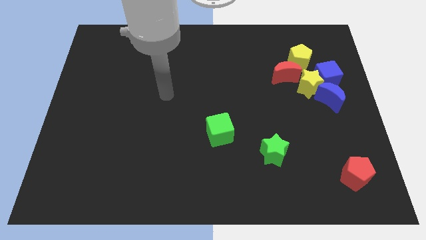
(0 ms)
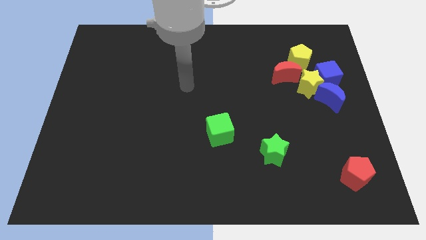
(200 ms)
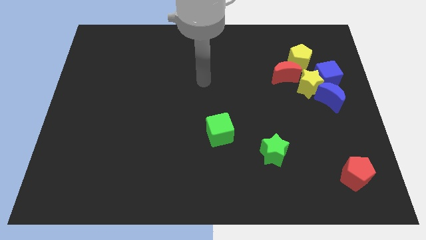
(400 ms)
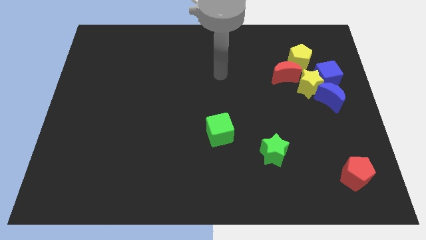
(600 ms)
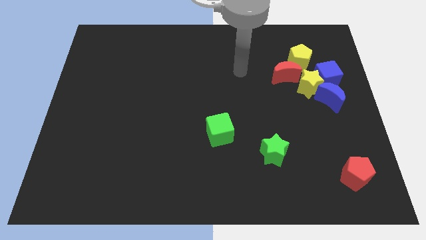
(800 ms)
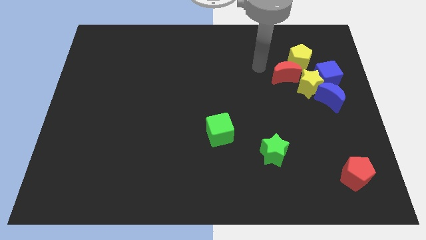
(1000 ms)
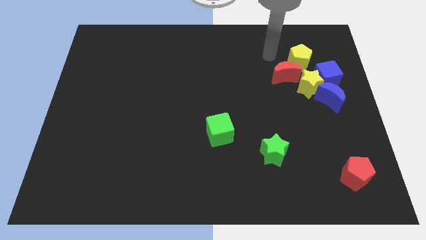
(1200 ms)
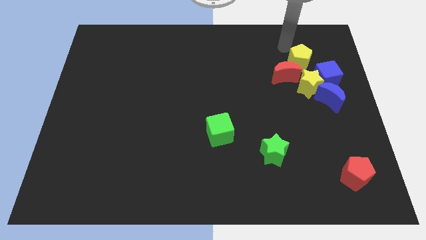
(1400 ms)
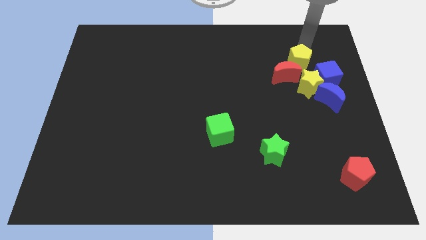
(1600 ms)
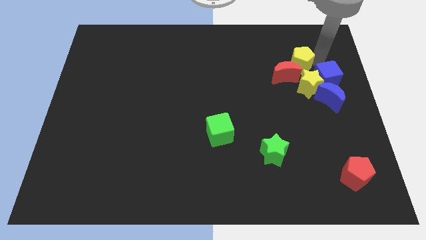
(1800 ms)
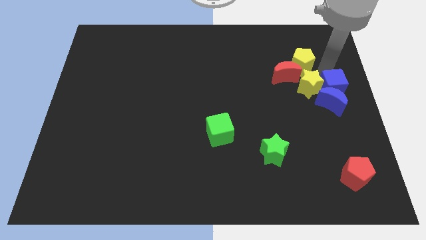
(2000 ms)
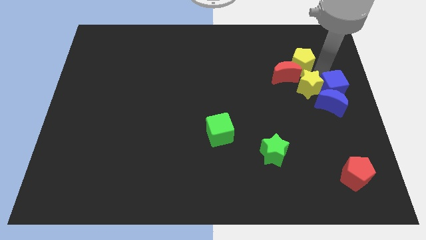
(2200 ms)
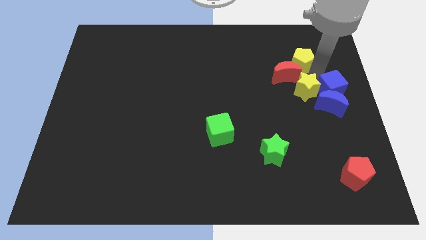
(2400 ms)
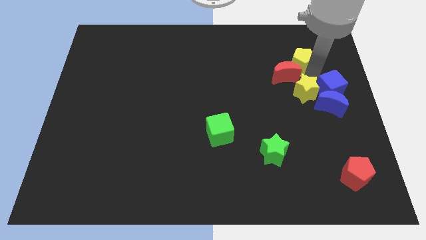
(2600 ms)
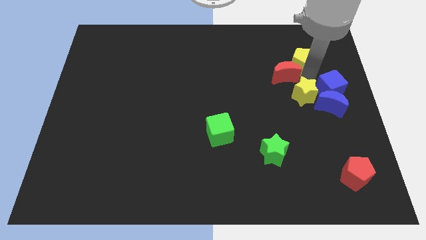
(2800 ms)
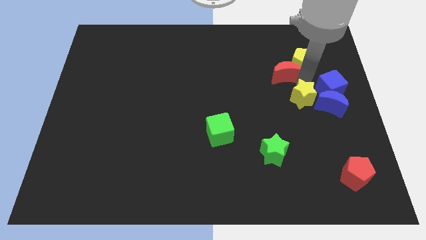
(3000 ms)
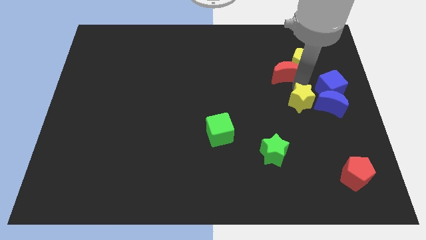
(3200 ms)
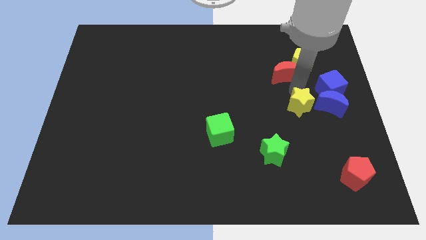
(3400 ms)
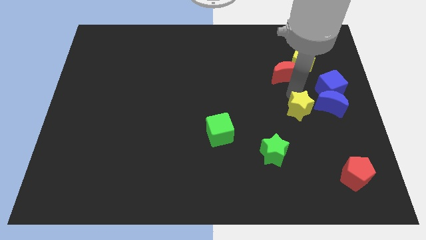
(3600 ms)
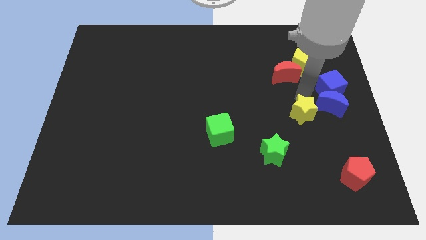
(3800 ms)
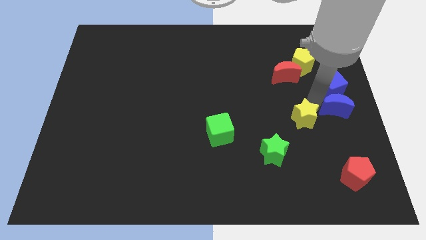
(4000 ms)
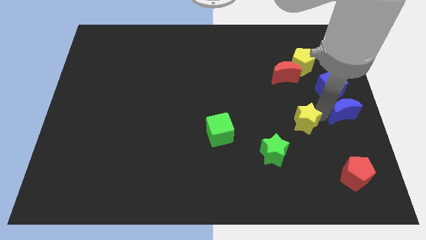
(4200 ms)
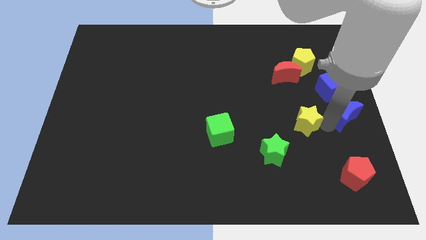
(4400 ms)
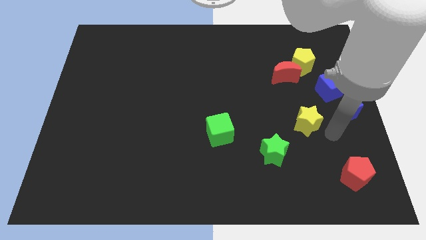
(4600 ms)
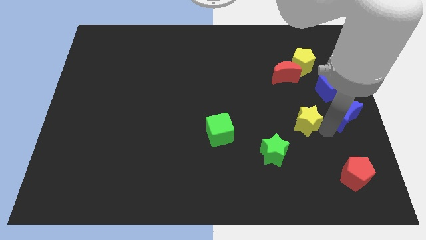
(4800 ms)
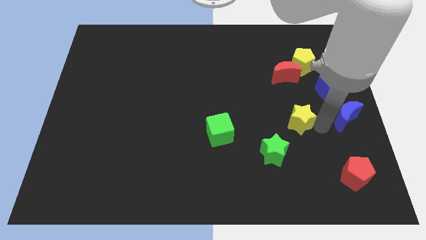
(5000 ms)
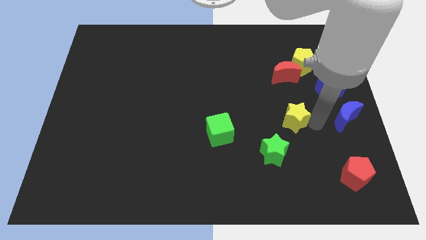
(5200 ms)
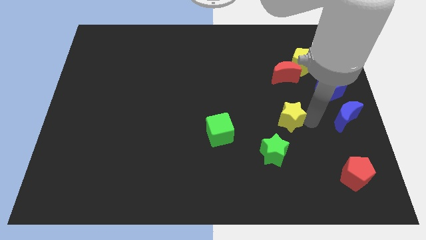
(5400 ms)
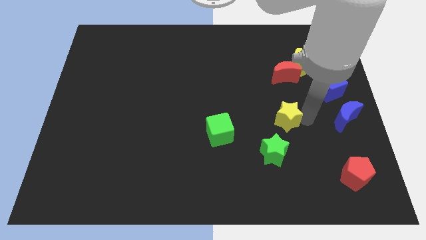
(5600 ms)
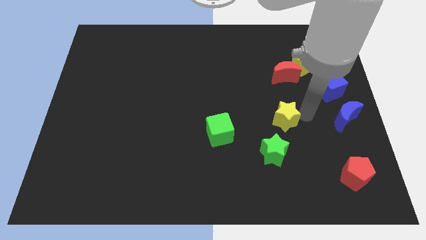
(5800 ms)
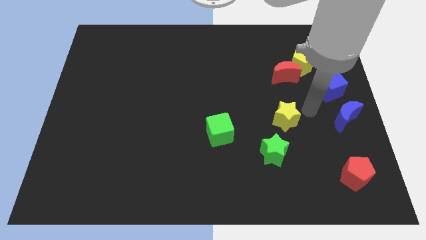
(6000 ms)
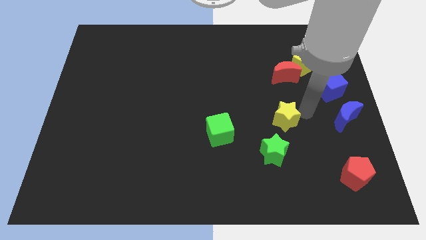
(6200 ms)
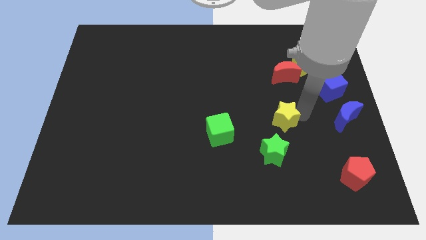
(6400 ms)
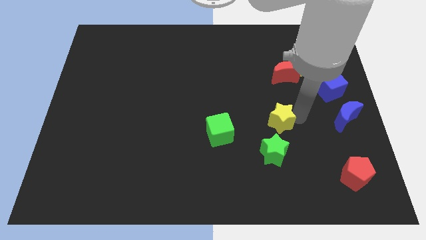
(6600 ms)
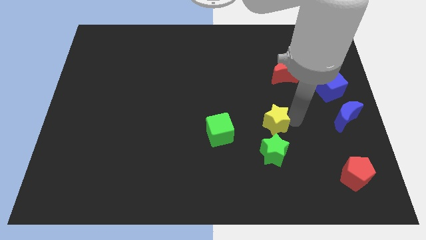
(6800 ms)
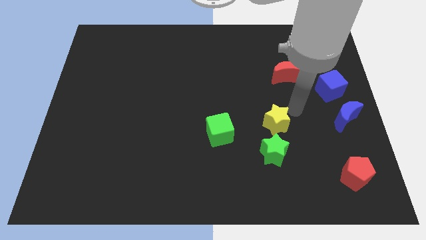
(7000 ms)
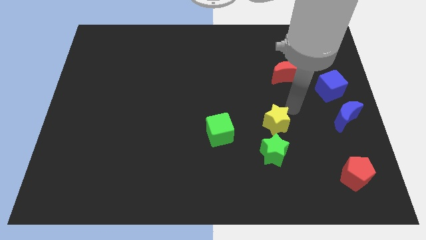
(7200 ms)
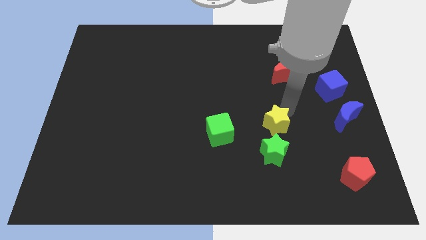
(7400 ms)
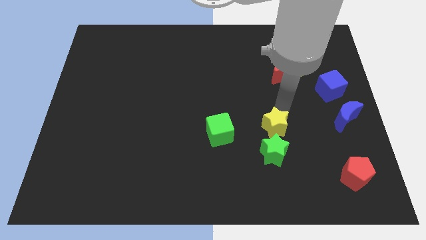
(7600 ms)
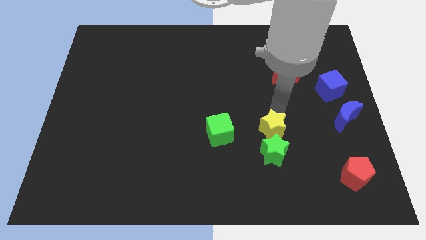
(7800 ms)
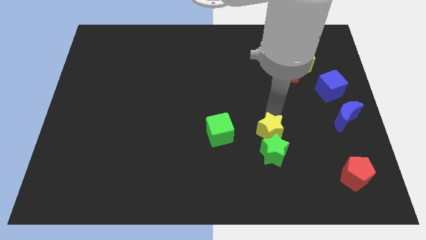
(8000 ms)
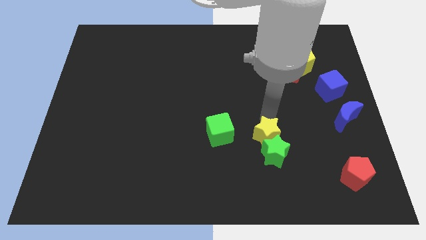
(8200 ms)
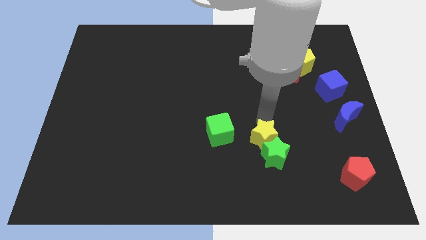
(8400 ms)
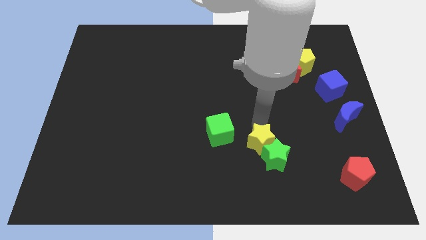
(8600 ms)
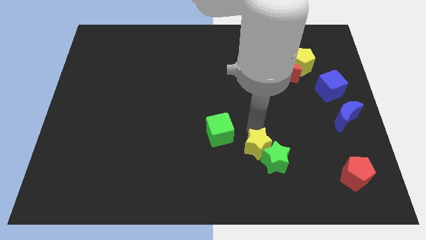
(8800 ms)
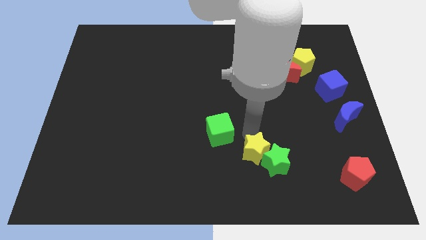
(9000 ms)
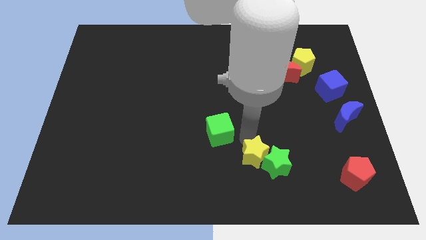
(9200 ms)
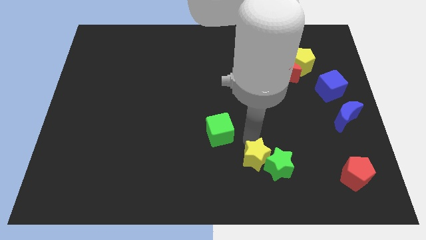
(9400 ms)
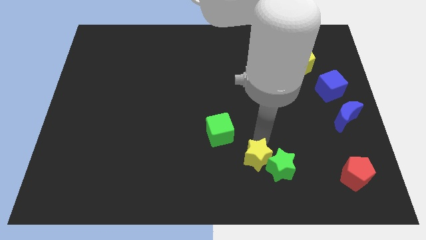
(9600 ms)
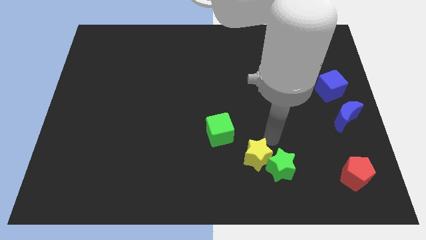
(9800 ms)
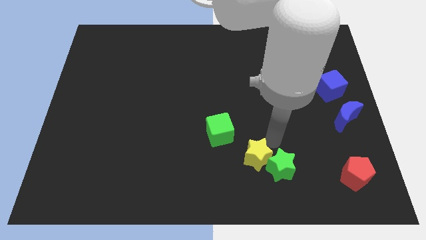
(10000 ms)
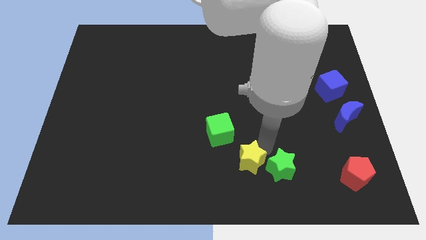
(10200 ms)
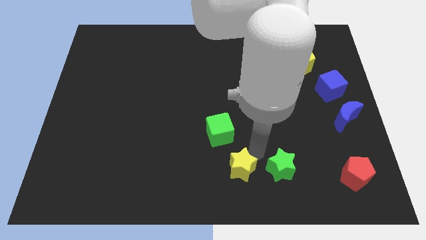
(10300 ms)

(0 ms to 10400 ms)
put the yellow star to the bottom
